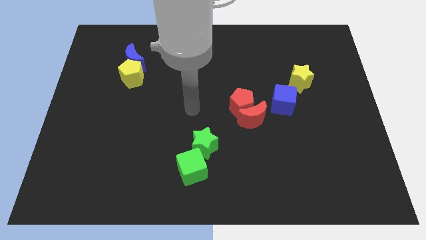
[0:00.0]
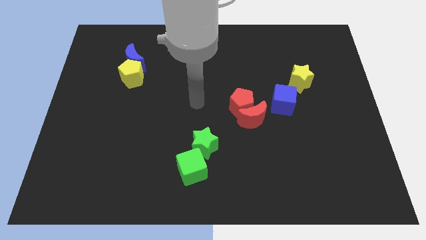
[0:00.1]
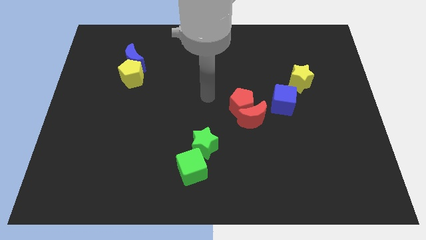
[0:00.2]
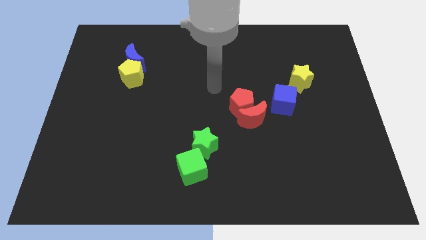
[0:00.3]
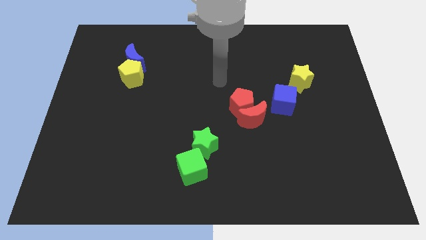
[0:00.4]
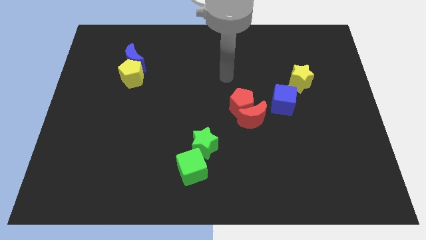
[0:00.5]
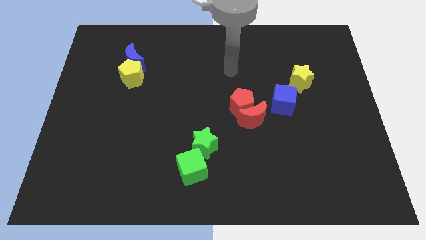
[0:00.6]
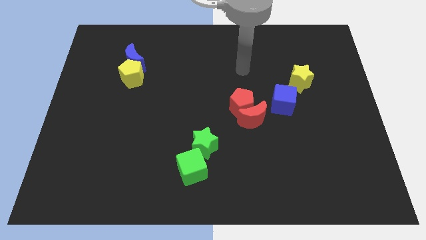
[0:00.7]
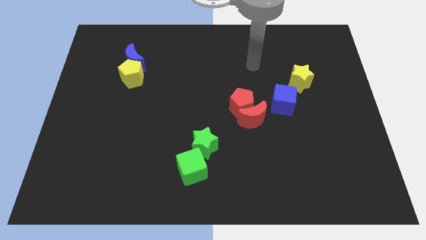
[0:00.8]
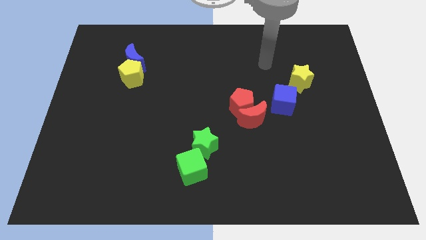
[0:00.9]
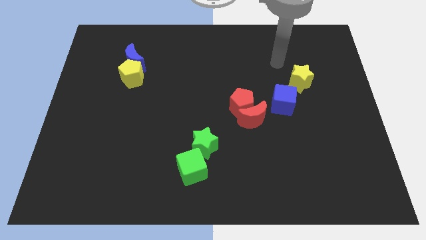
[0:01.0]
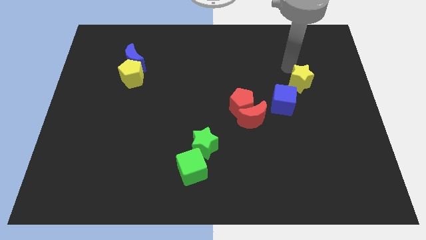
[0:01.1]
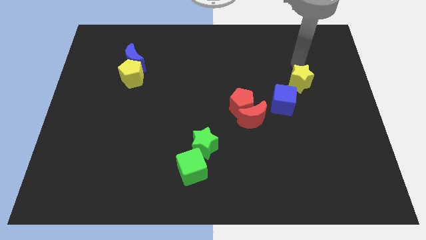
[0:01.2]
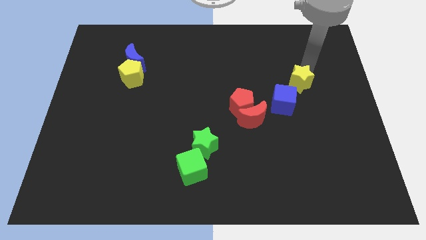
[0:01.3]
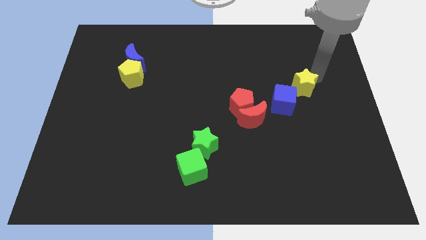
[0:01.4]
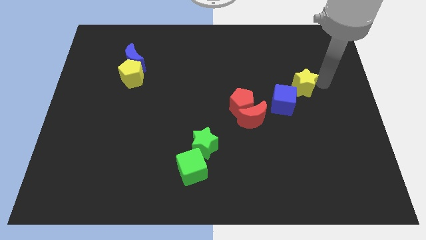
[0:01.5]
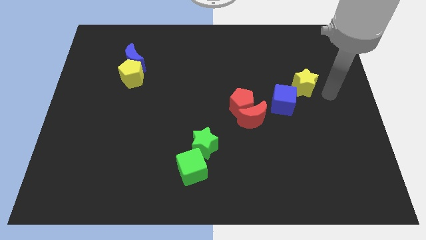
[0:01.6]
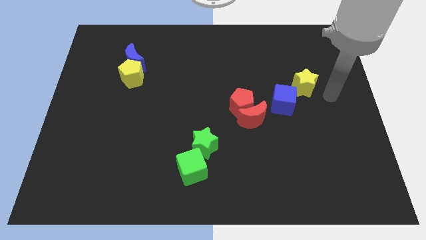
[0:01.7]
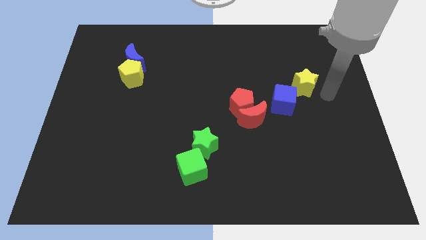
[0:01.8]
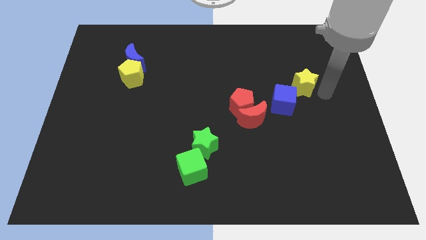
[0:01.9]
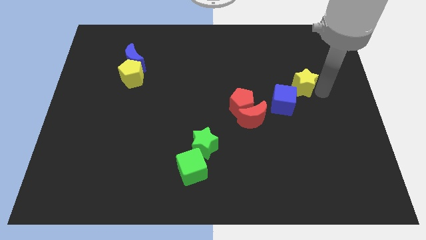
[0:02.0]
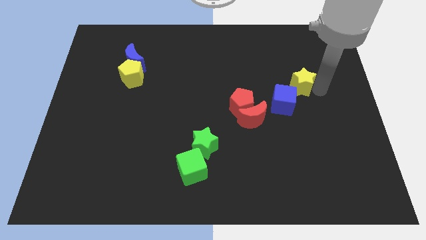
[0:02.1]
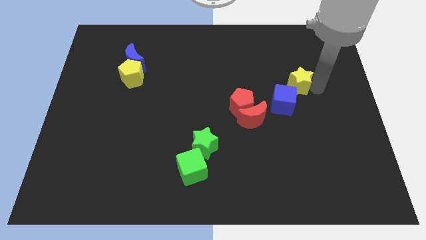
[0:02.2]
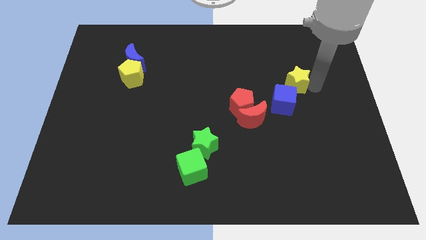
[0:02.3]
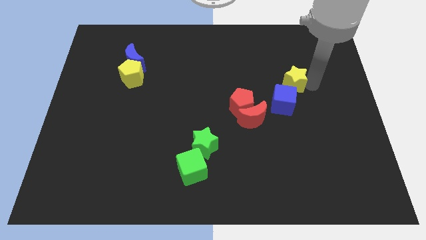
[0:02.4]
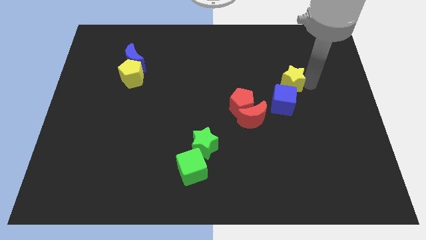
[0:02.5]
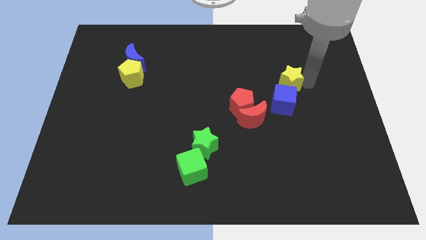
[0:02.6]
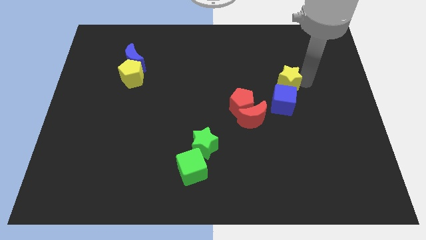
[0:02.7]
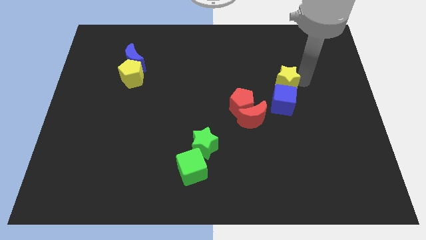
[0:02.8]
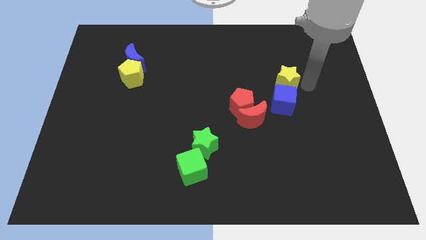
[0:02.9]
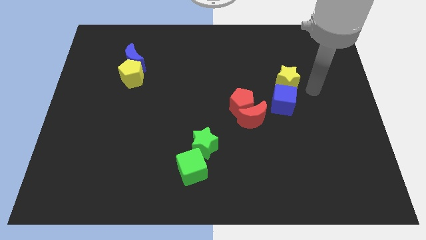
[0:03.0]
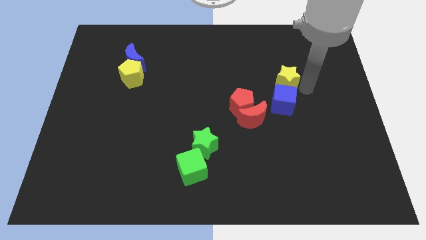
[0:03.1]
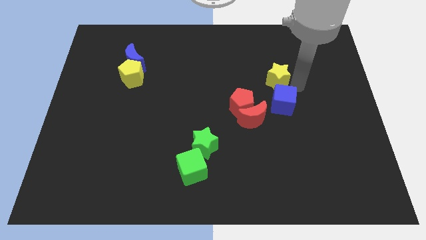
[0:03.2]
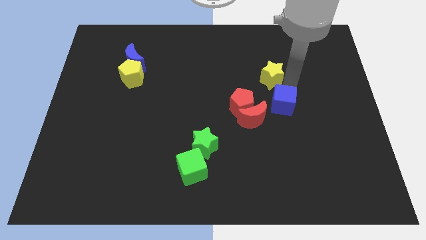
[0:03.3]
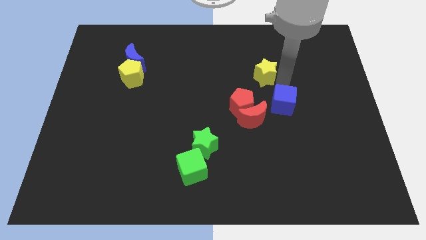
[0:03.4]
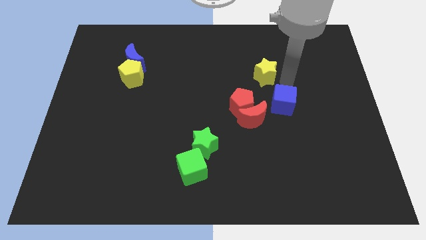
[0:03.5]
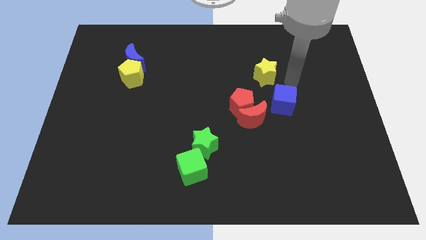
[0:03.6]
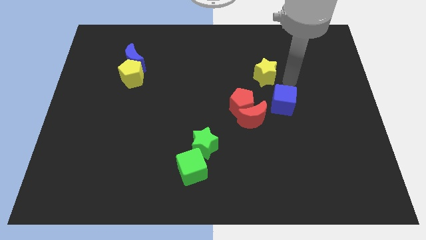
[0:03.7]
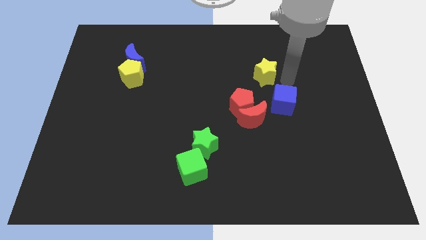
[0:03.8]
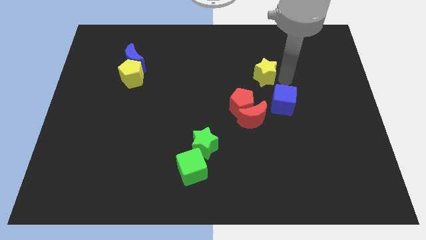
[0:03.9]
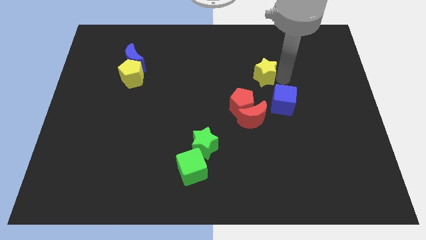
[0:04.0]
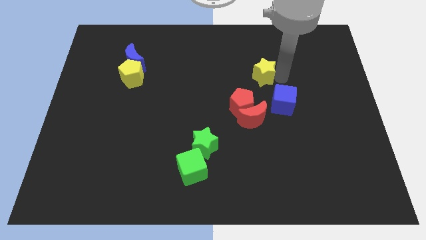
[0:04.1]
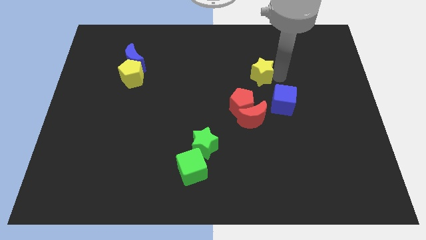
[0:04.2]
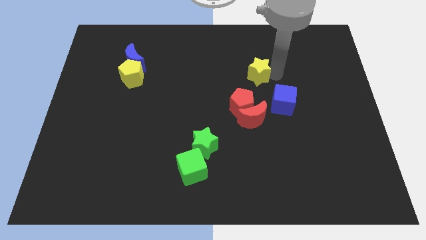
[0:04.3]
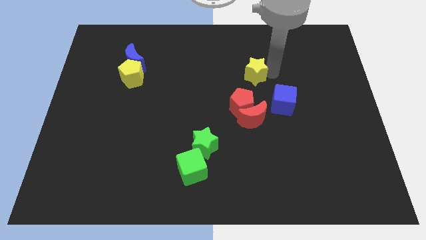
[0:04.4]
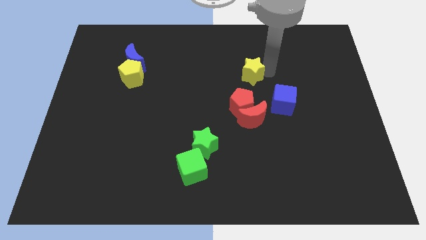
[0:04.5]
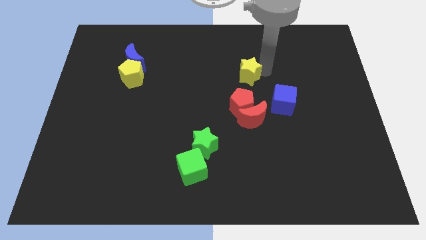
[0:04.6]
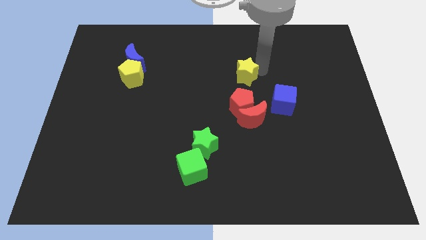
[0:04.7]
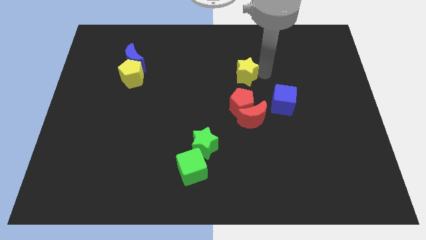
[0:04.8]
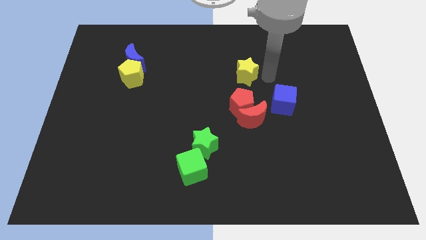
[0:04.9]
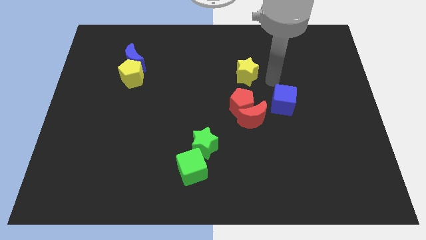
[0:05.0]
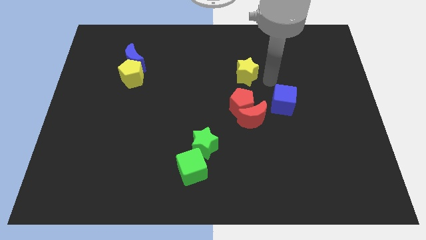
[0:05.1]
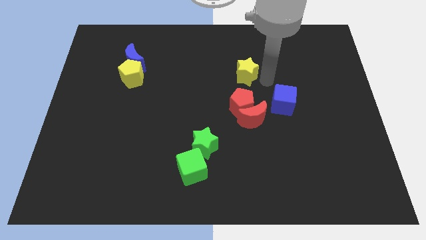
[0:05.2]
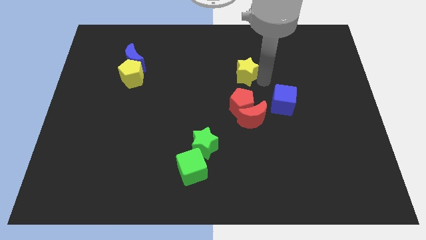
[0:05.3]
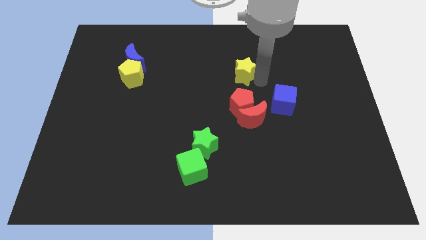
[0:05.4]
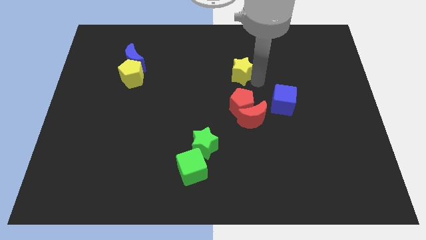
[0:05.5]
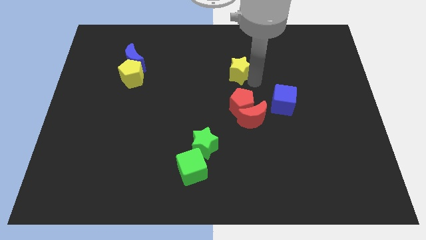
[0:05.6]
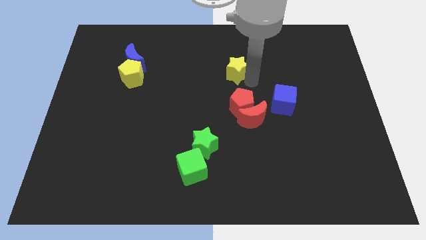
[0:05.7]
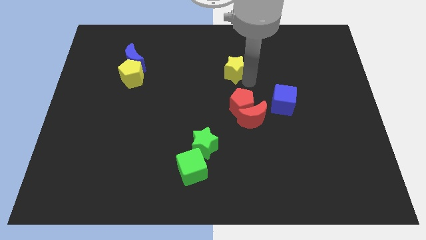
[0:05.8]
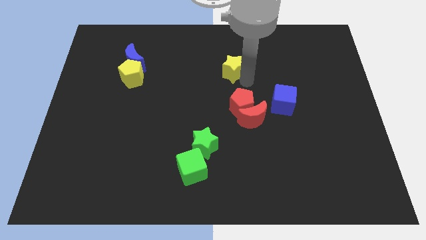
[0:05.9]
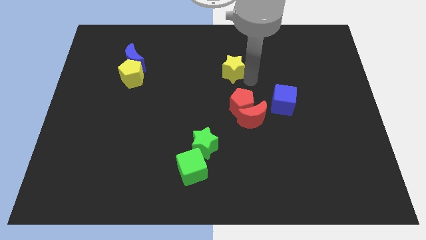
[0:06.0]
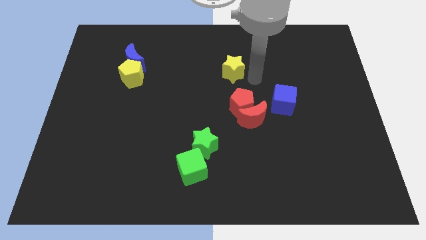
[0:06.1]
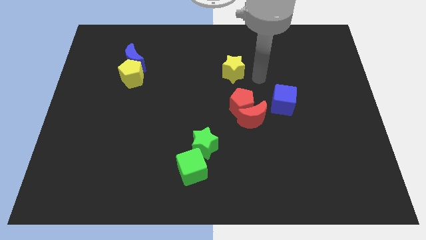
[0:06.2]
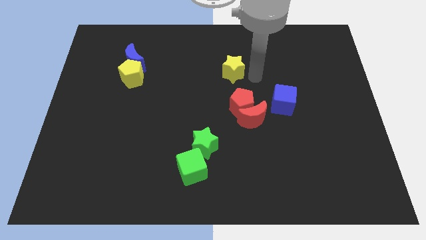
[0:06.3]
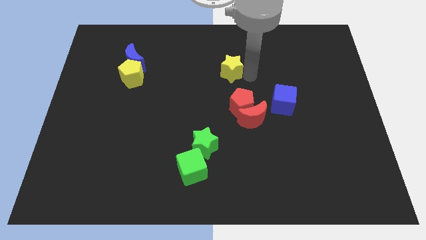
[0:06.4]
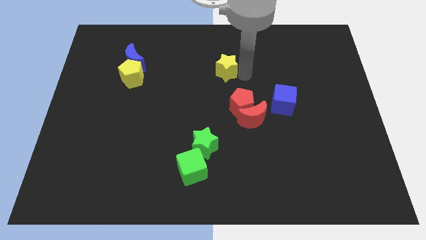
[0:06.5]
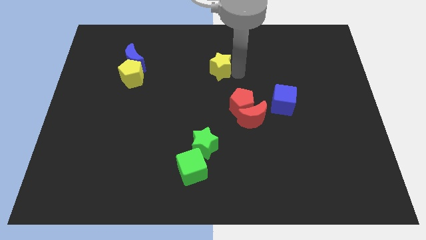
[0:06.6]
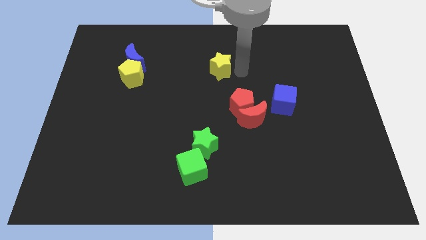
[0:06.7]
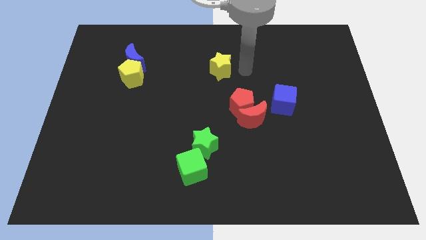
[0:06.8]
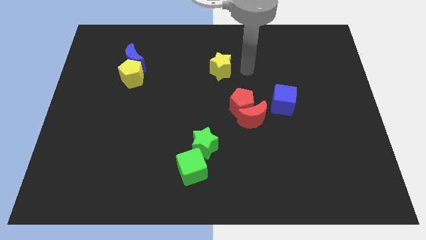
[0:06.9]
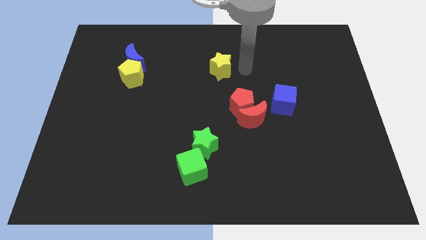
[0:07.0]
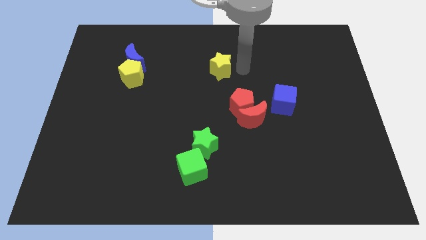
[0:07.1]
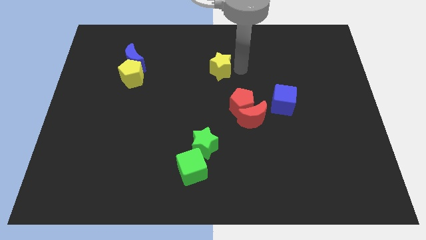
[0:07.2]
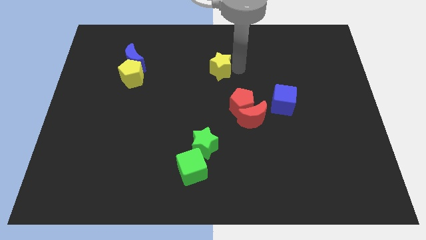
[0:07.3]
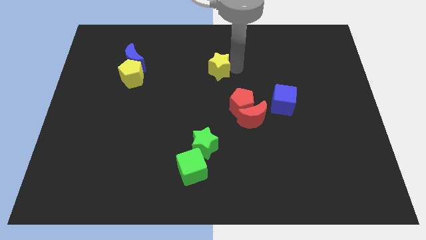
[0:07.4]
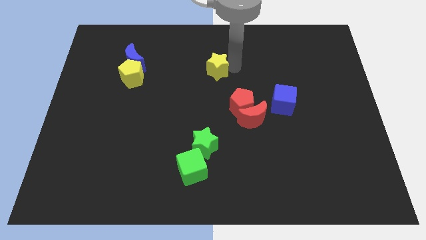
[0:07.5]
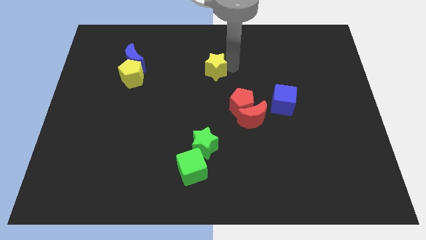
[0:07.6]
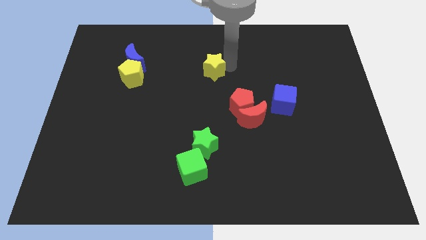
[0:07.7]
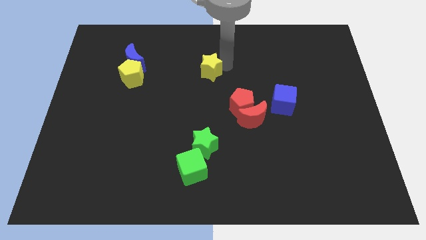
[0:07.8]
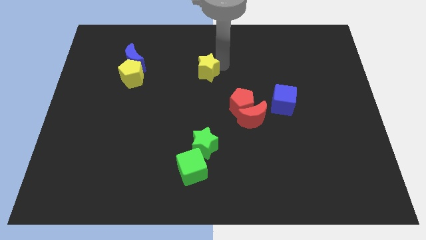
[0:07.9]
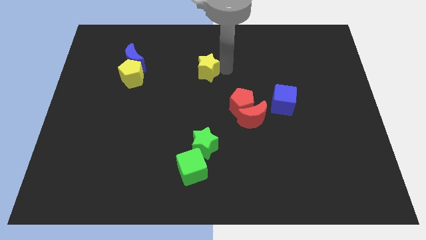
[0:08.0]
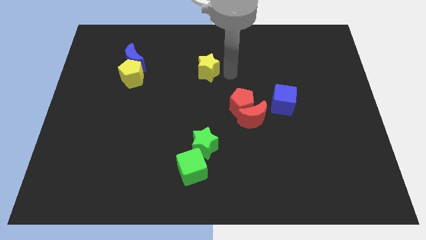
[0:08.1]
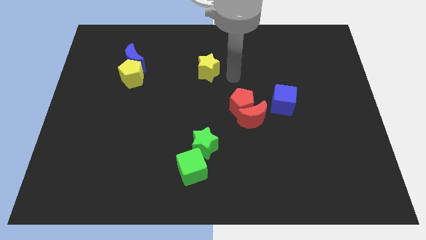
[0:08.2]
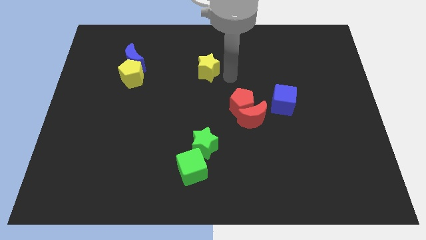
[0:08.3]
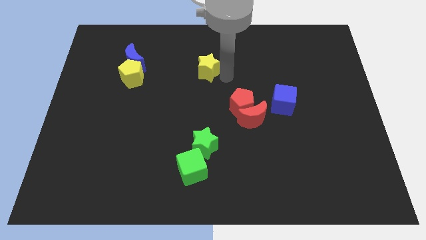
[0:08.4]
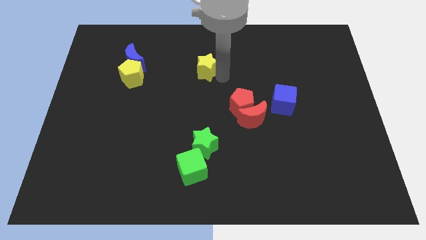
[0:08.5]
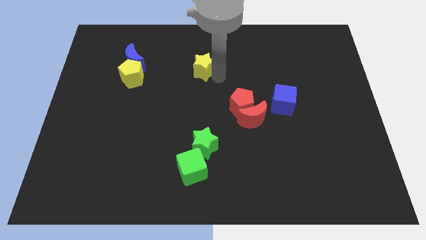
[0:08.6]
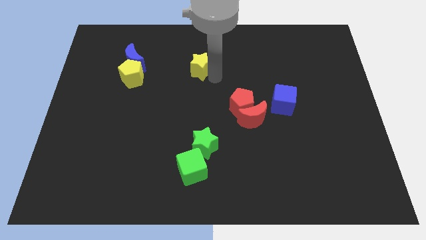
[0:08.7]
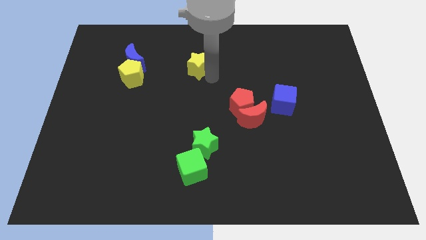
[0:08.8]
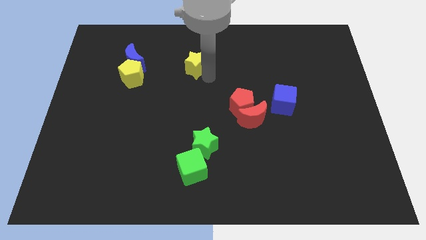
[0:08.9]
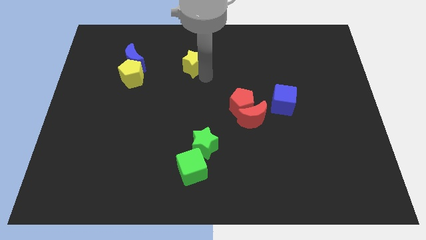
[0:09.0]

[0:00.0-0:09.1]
push the yellow star just right of the blue moon
